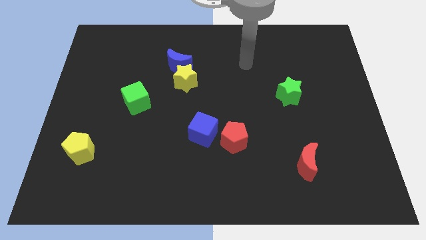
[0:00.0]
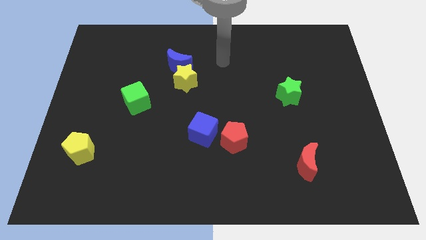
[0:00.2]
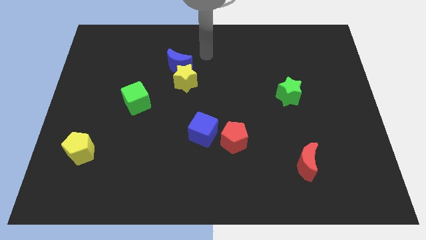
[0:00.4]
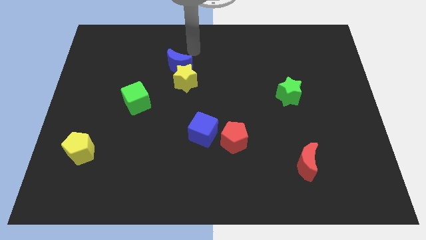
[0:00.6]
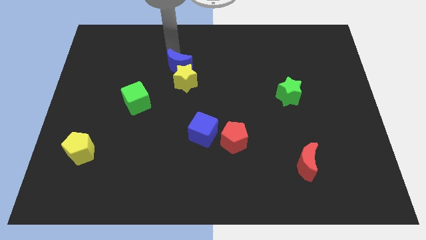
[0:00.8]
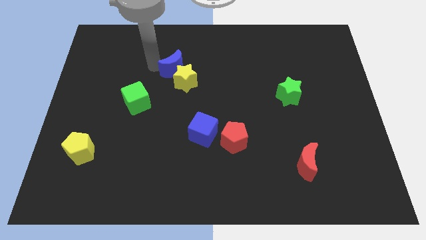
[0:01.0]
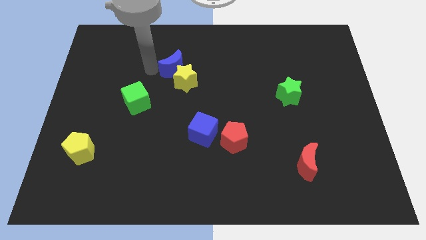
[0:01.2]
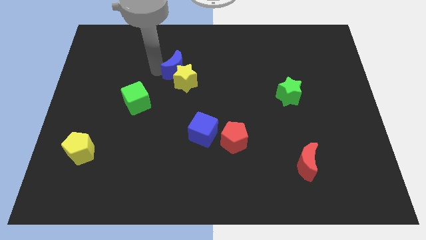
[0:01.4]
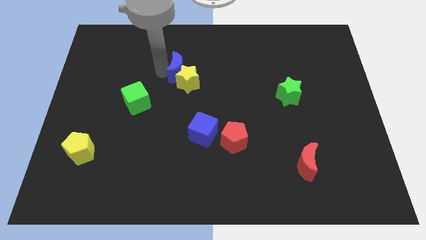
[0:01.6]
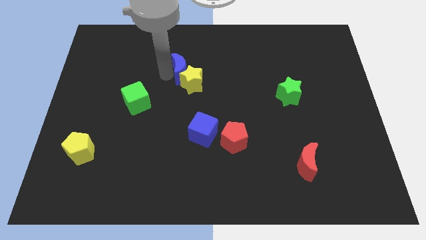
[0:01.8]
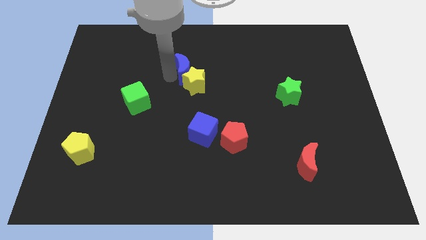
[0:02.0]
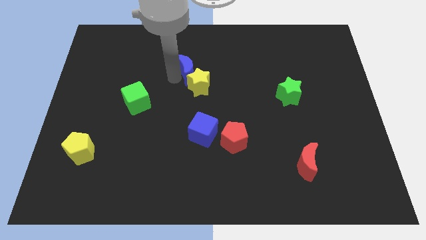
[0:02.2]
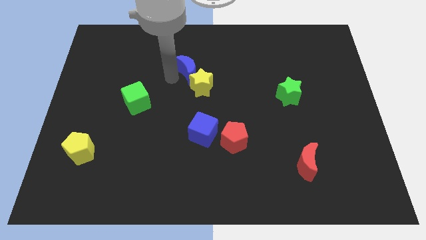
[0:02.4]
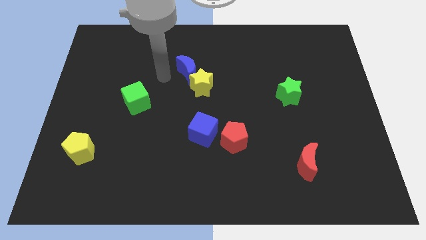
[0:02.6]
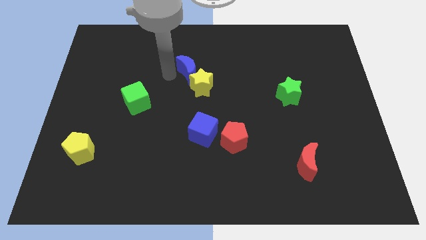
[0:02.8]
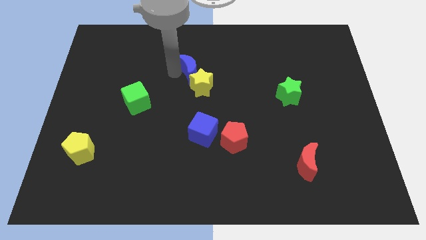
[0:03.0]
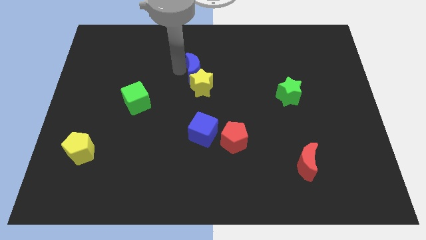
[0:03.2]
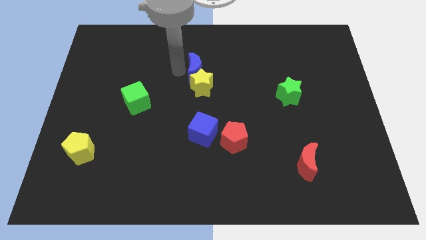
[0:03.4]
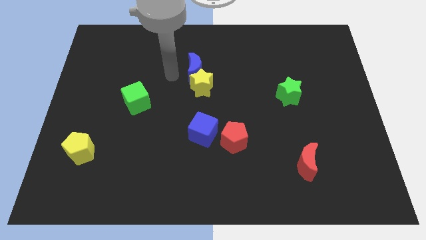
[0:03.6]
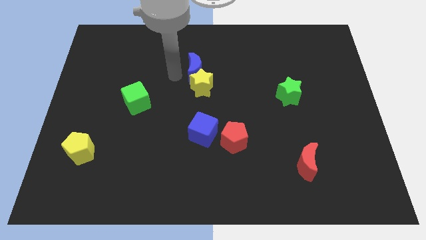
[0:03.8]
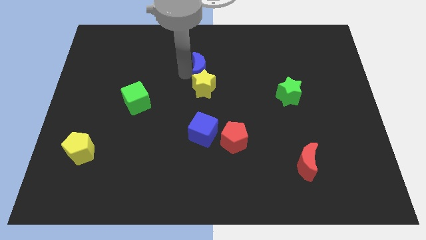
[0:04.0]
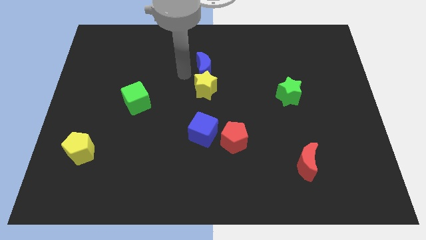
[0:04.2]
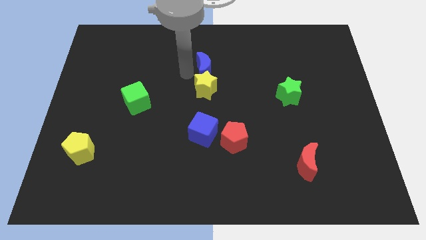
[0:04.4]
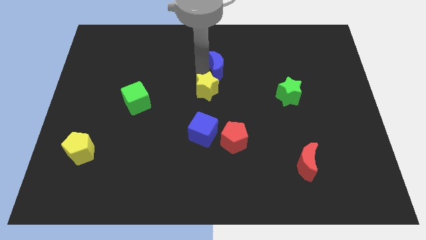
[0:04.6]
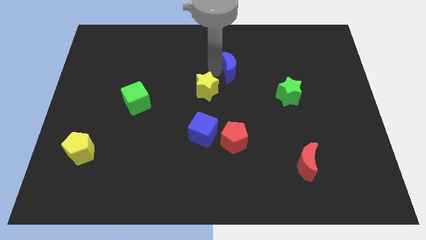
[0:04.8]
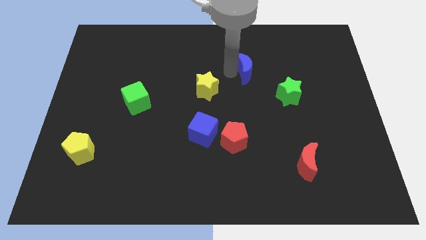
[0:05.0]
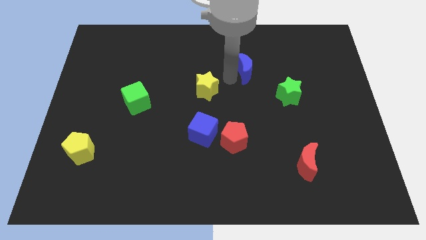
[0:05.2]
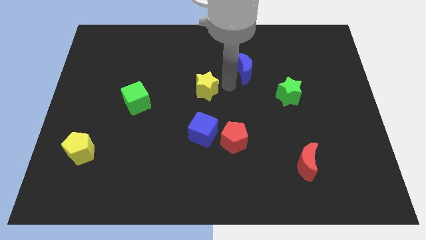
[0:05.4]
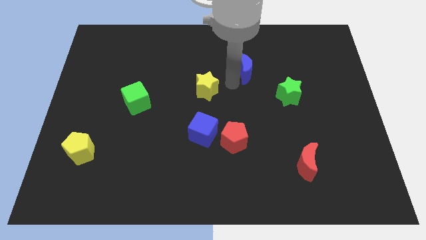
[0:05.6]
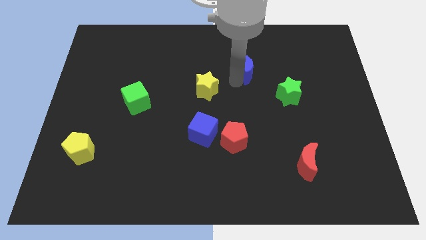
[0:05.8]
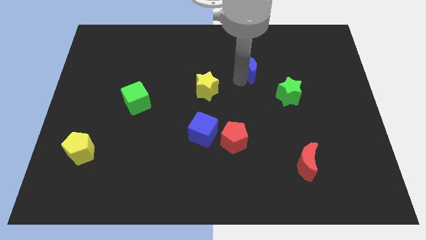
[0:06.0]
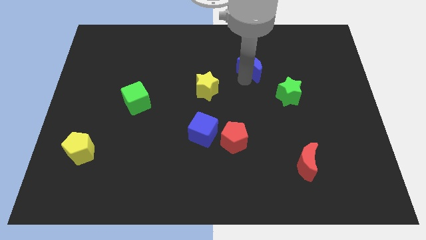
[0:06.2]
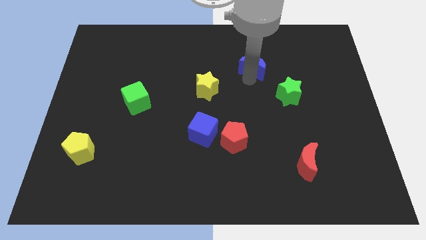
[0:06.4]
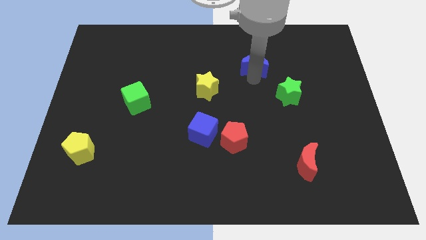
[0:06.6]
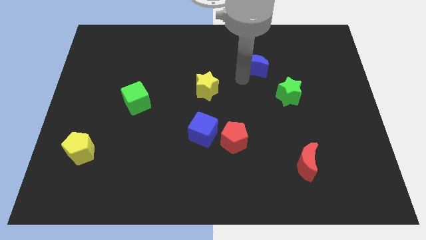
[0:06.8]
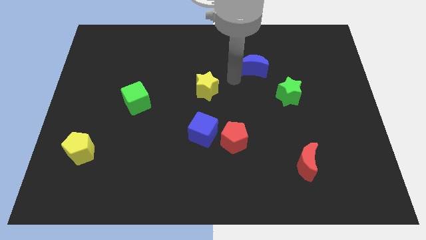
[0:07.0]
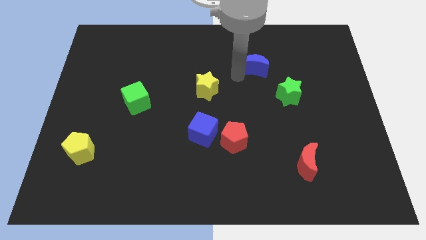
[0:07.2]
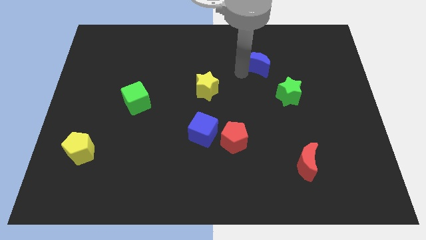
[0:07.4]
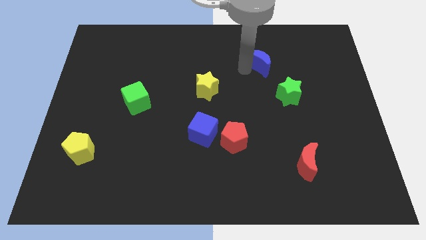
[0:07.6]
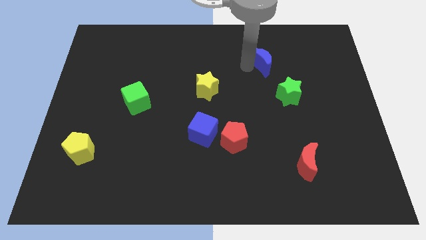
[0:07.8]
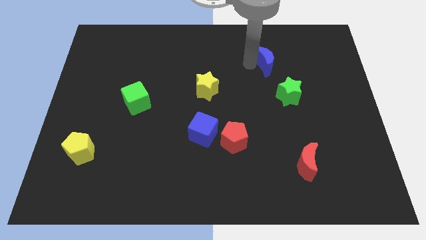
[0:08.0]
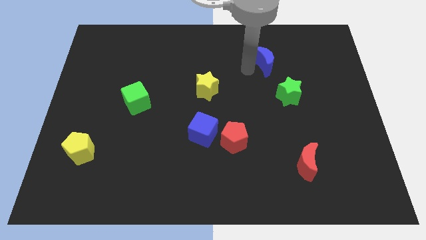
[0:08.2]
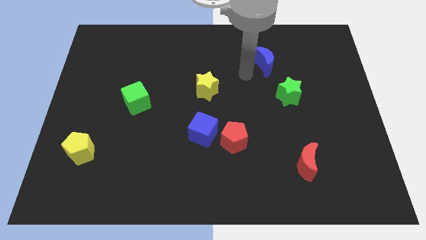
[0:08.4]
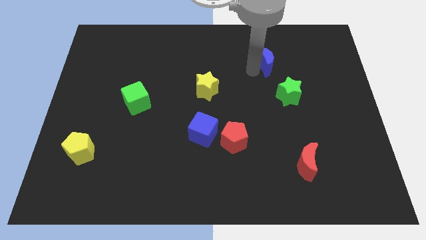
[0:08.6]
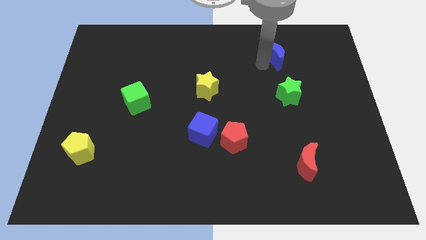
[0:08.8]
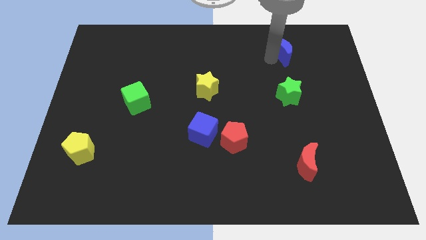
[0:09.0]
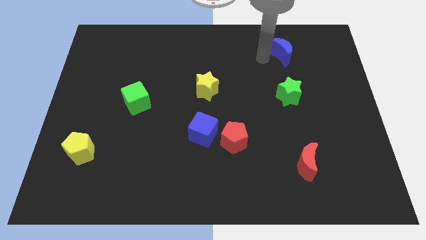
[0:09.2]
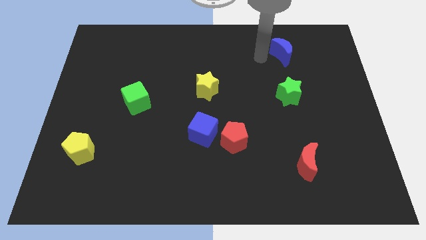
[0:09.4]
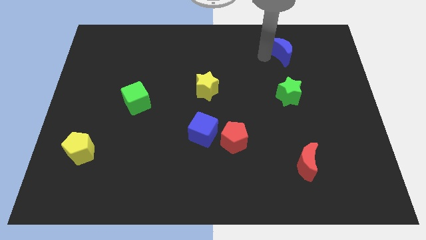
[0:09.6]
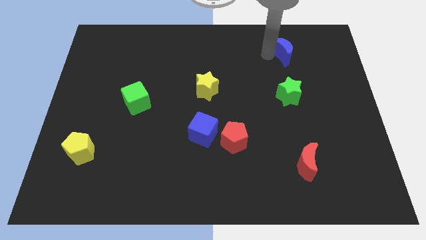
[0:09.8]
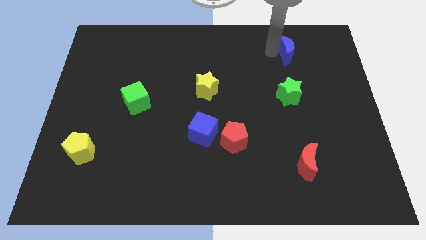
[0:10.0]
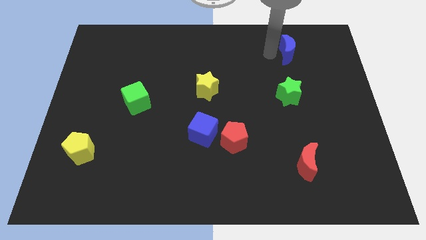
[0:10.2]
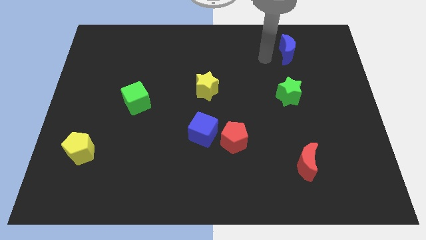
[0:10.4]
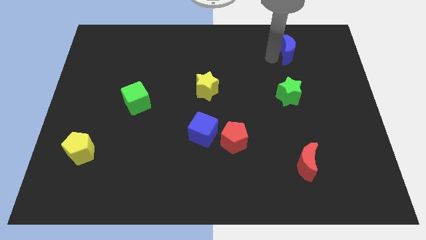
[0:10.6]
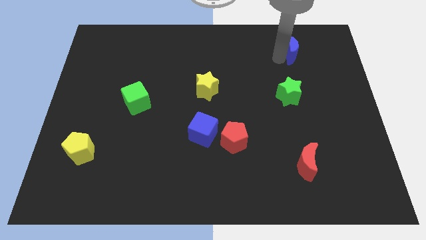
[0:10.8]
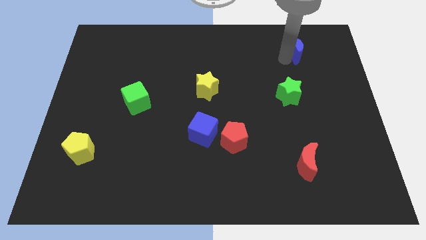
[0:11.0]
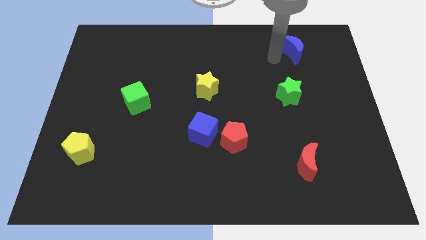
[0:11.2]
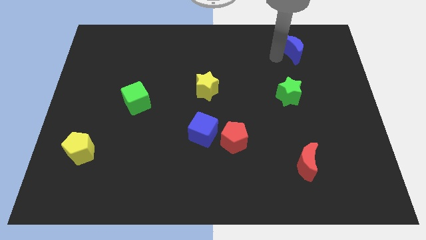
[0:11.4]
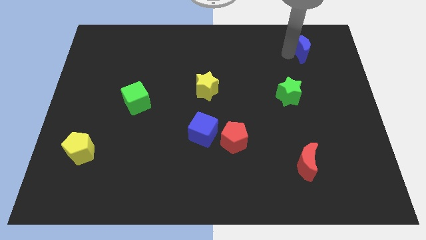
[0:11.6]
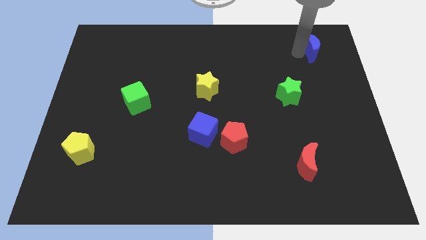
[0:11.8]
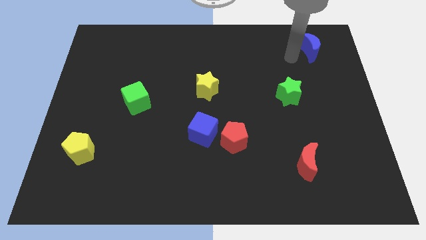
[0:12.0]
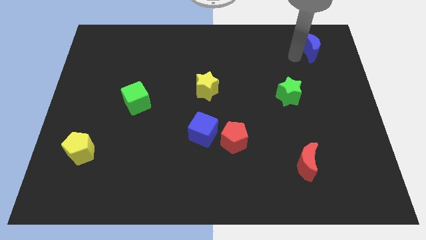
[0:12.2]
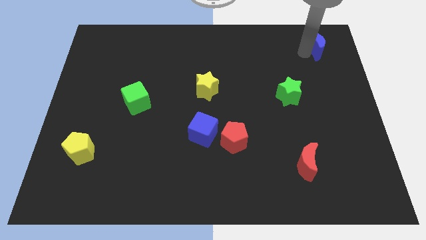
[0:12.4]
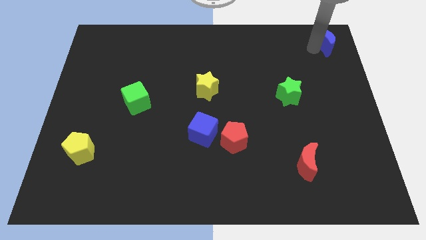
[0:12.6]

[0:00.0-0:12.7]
move the blue moon to the top right
